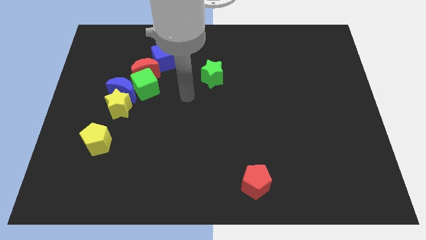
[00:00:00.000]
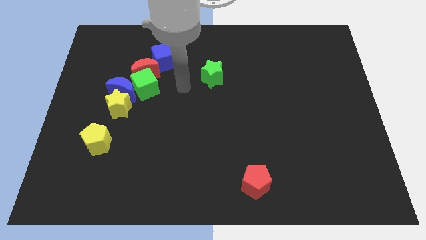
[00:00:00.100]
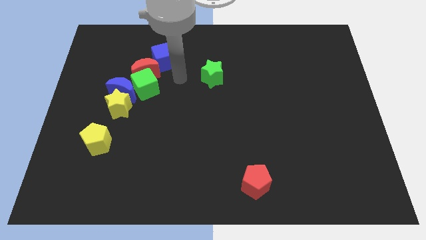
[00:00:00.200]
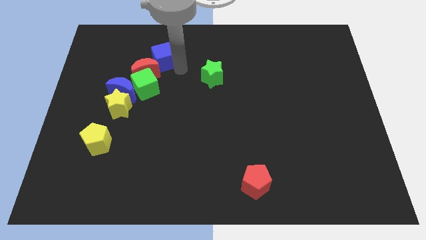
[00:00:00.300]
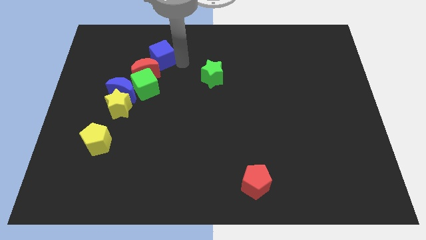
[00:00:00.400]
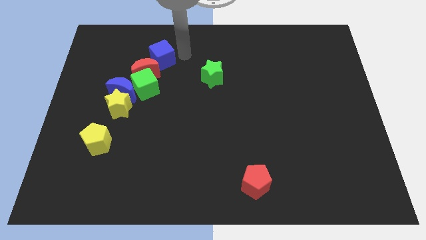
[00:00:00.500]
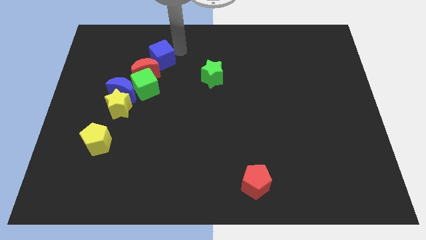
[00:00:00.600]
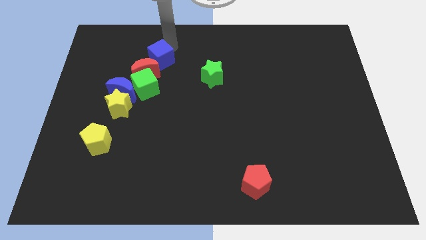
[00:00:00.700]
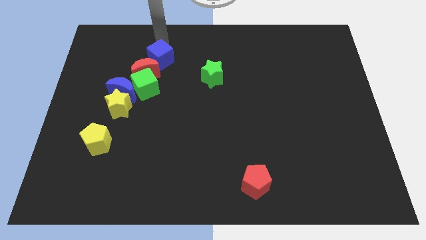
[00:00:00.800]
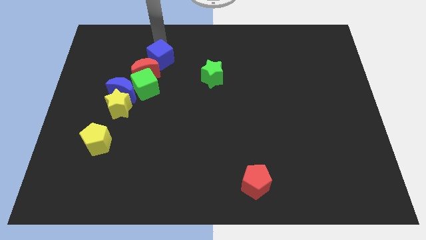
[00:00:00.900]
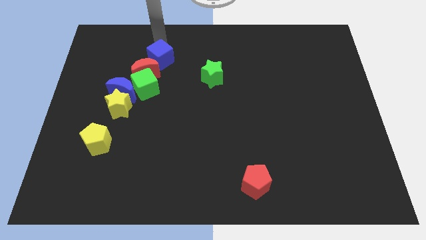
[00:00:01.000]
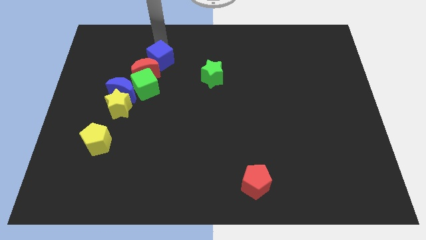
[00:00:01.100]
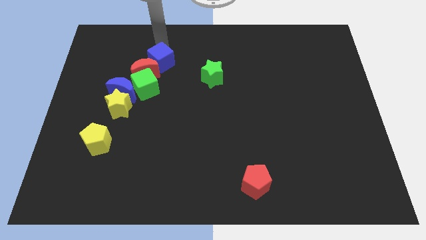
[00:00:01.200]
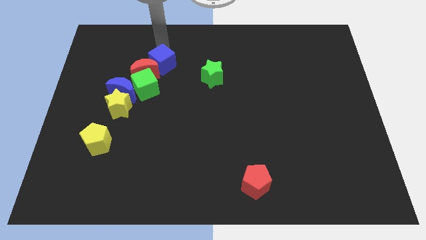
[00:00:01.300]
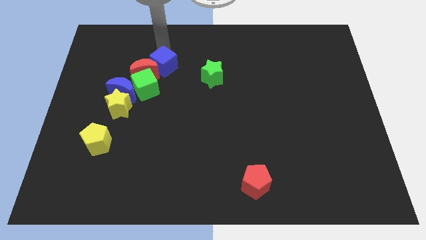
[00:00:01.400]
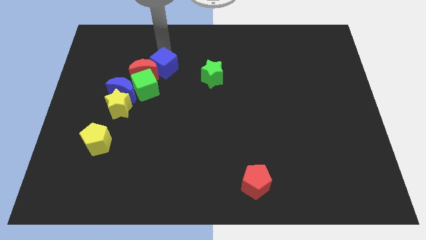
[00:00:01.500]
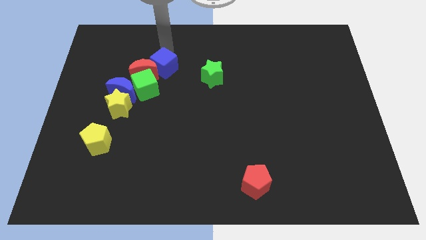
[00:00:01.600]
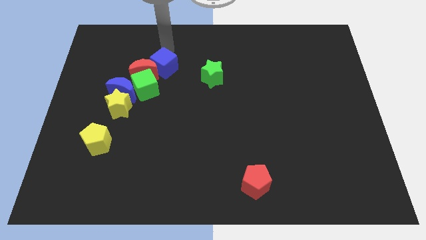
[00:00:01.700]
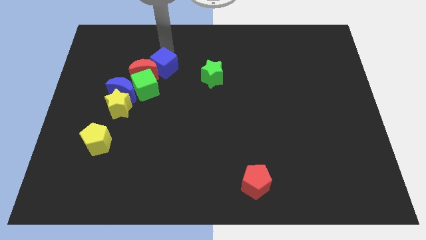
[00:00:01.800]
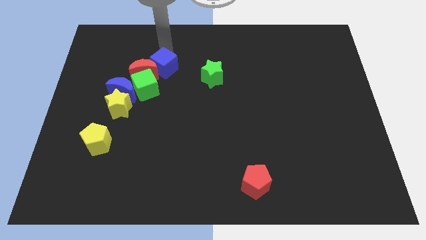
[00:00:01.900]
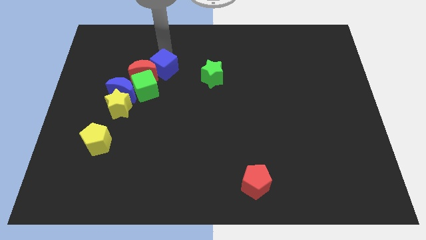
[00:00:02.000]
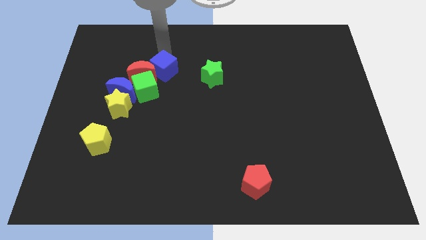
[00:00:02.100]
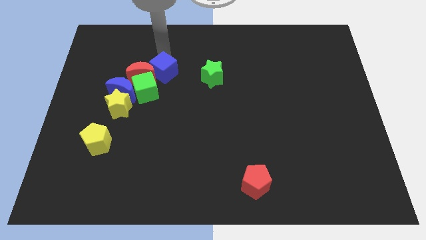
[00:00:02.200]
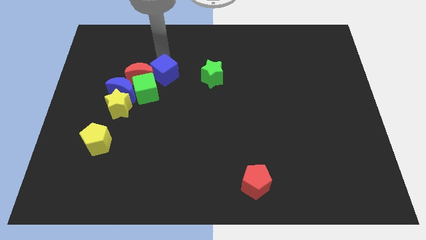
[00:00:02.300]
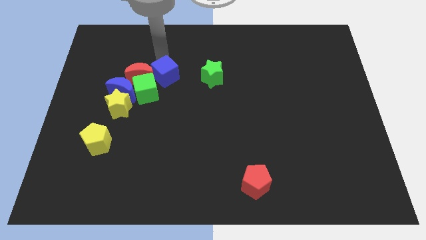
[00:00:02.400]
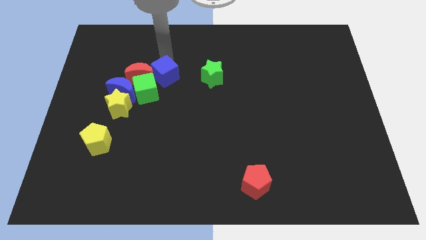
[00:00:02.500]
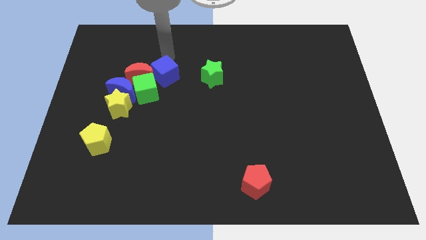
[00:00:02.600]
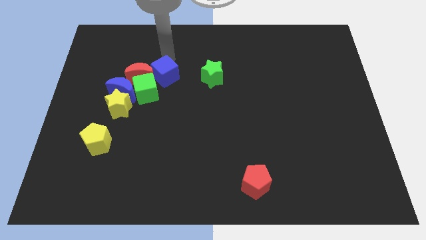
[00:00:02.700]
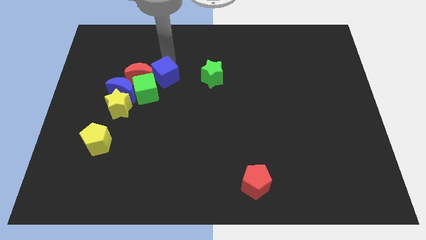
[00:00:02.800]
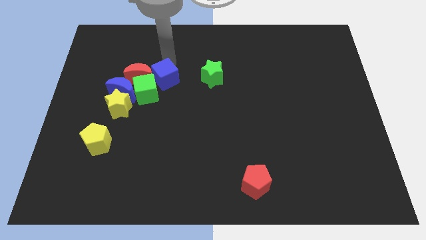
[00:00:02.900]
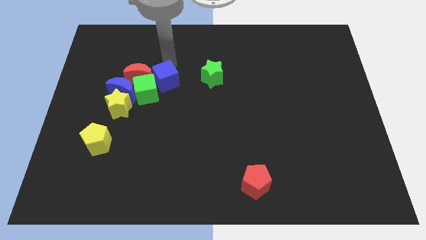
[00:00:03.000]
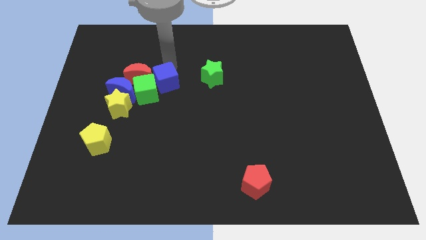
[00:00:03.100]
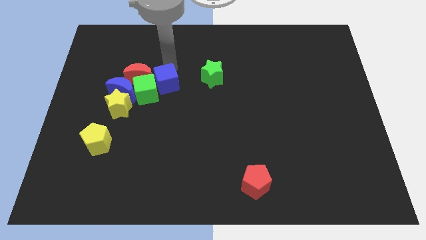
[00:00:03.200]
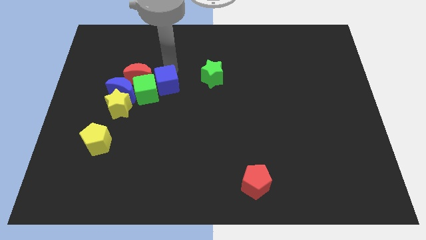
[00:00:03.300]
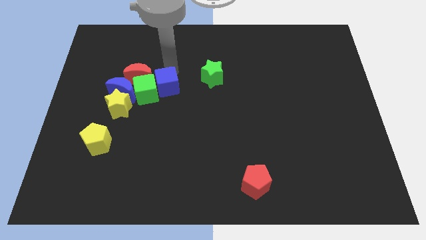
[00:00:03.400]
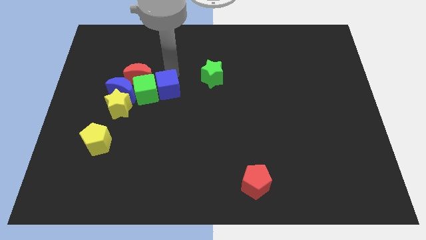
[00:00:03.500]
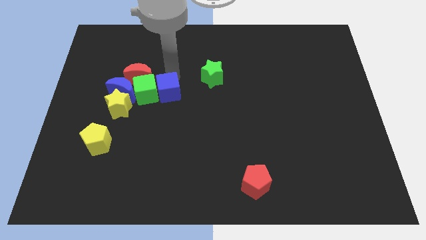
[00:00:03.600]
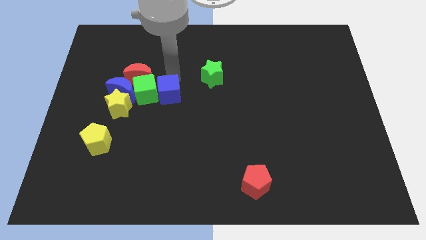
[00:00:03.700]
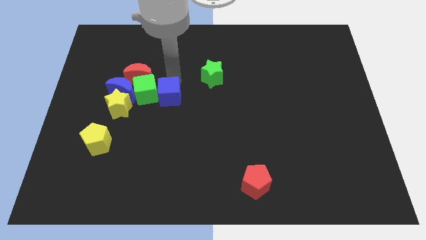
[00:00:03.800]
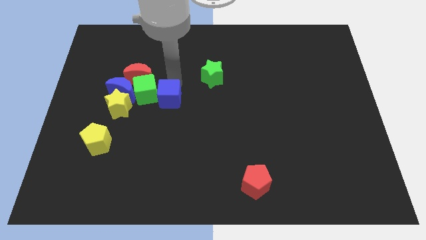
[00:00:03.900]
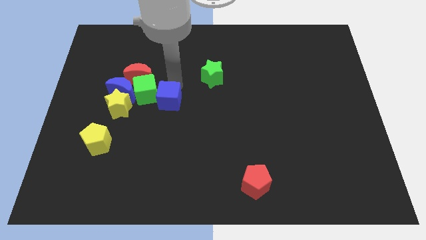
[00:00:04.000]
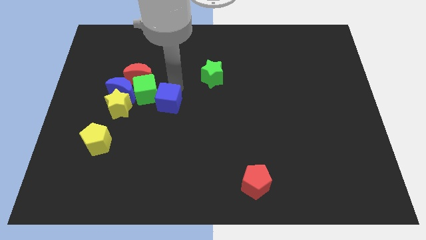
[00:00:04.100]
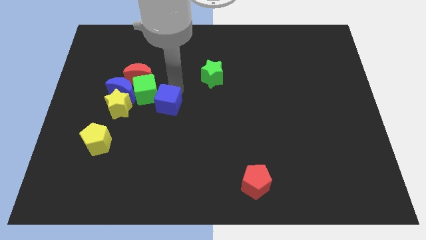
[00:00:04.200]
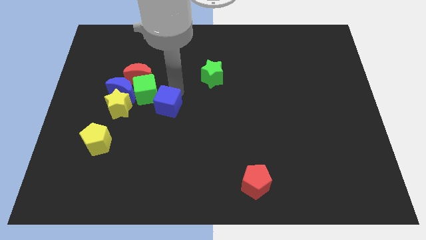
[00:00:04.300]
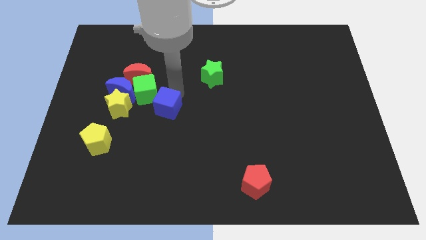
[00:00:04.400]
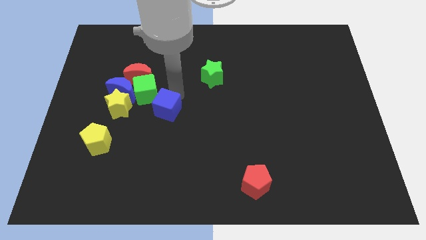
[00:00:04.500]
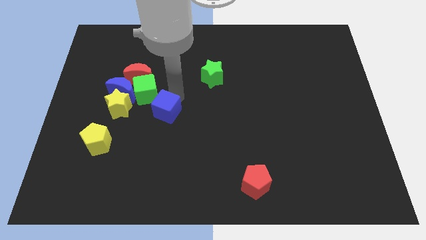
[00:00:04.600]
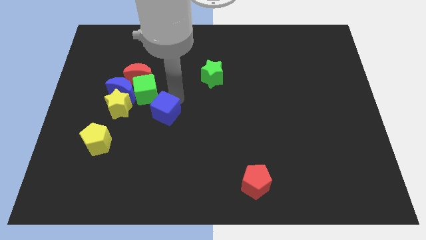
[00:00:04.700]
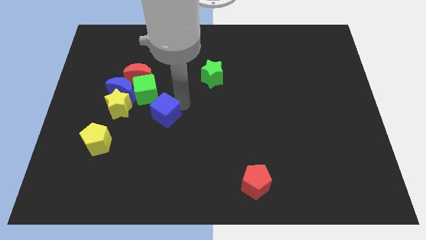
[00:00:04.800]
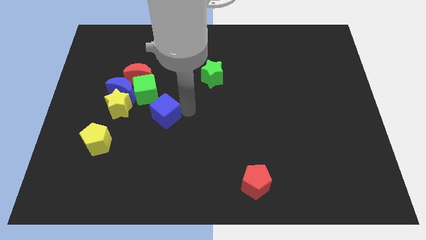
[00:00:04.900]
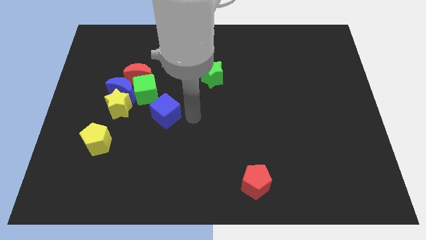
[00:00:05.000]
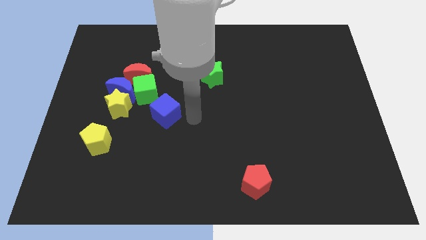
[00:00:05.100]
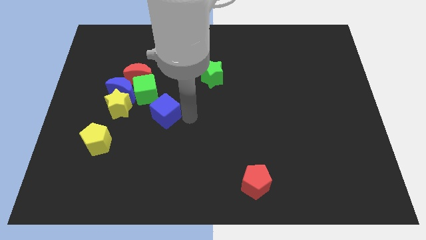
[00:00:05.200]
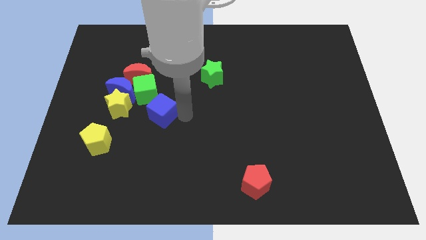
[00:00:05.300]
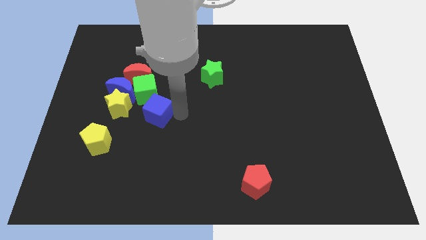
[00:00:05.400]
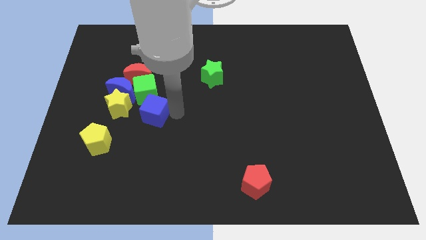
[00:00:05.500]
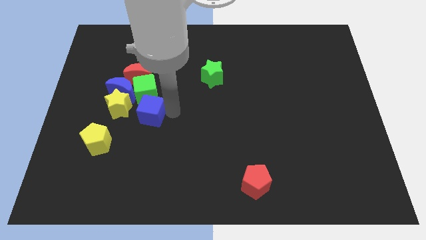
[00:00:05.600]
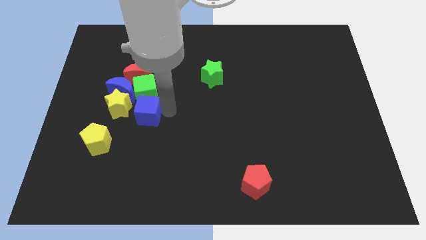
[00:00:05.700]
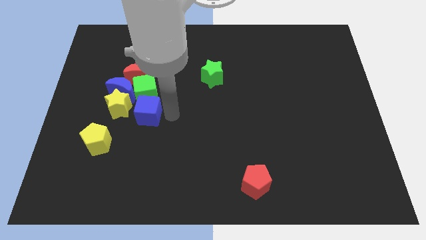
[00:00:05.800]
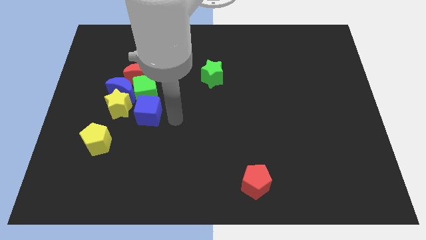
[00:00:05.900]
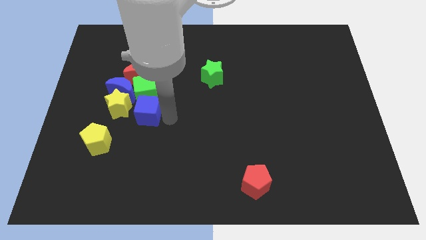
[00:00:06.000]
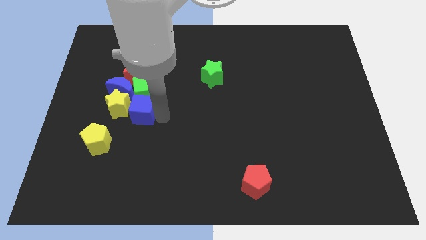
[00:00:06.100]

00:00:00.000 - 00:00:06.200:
move the blue cube to the yellow star

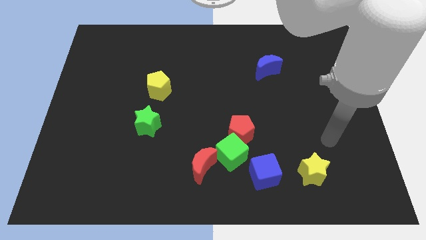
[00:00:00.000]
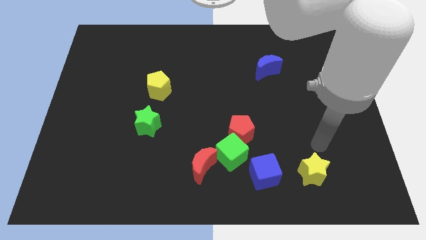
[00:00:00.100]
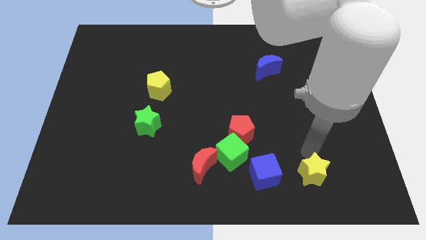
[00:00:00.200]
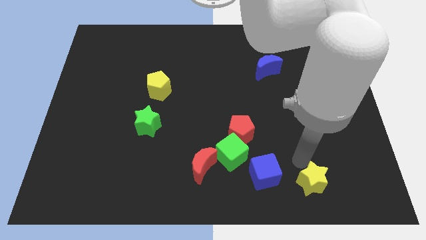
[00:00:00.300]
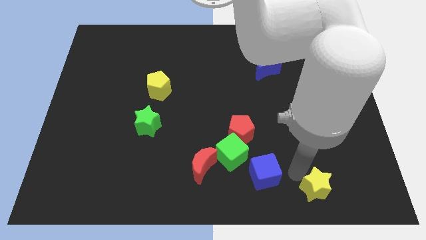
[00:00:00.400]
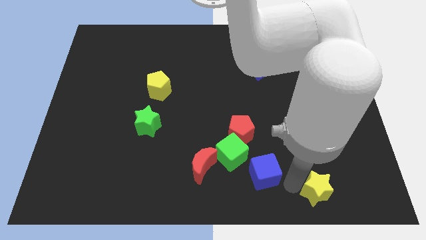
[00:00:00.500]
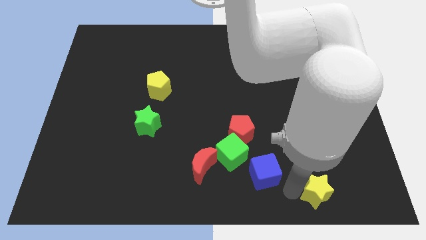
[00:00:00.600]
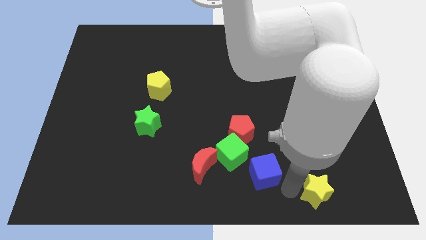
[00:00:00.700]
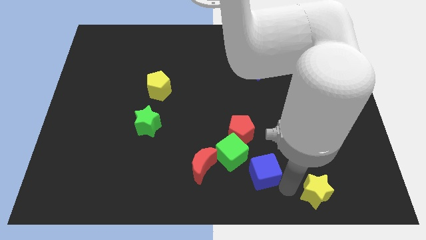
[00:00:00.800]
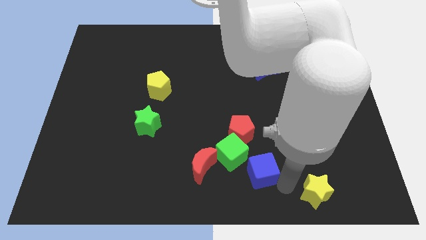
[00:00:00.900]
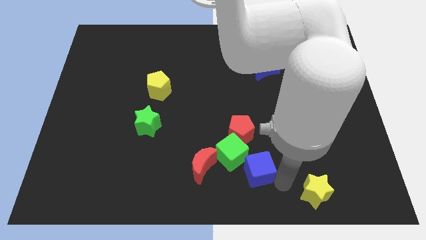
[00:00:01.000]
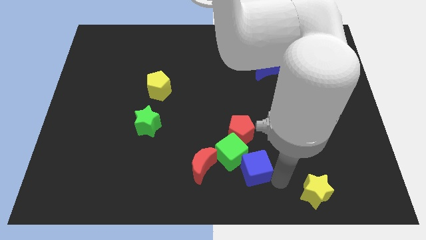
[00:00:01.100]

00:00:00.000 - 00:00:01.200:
slide the blue cube next to the green cube
